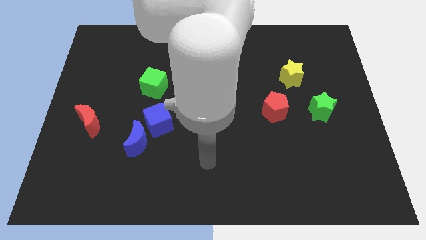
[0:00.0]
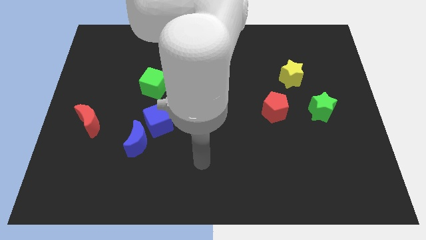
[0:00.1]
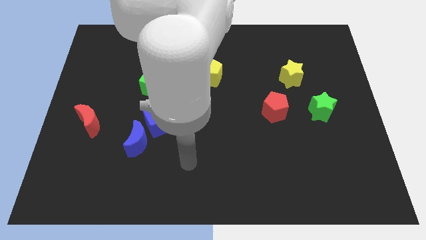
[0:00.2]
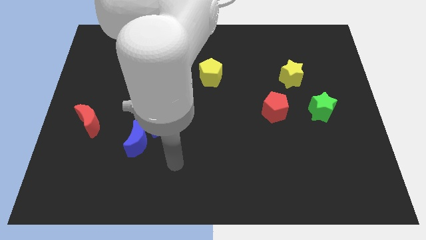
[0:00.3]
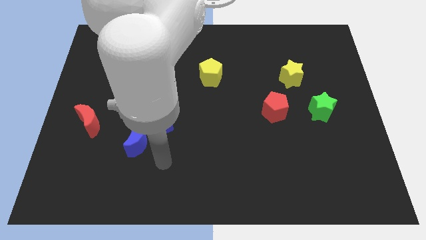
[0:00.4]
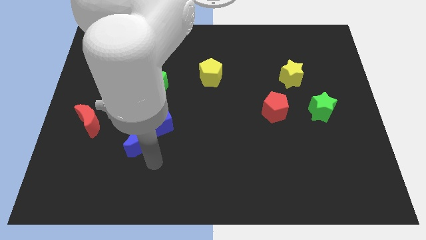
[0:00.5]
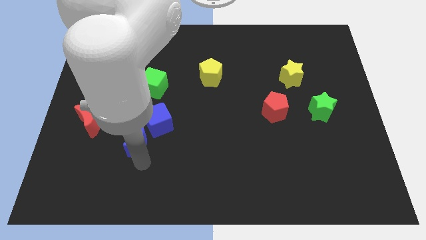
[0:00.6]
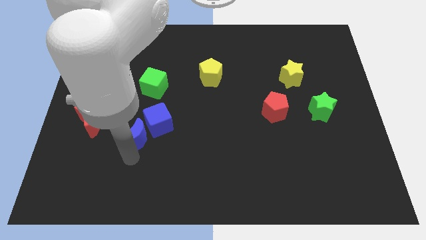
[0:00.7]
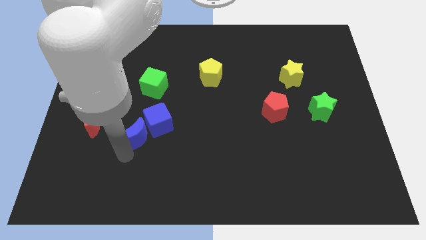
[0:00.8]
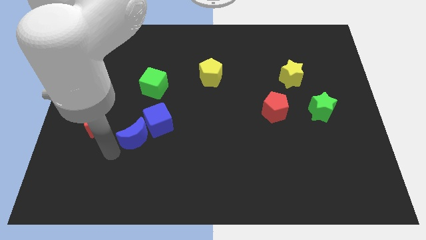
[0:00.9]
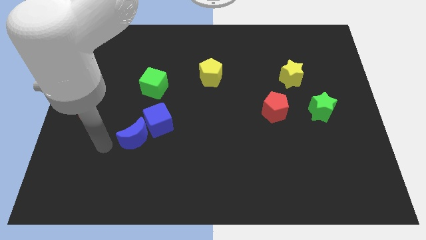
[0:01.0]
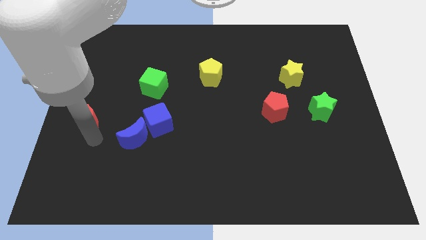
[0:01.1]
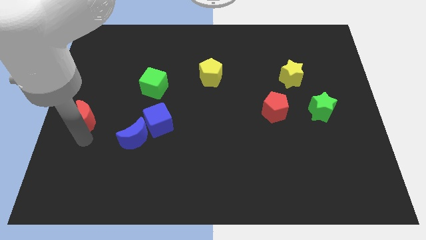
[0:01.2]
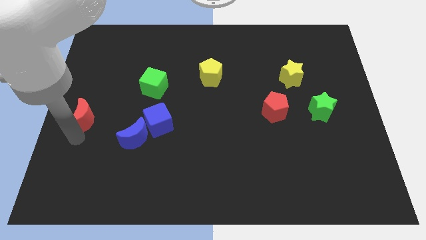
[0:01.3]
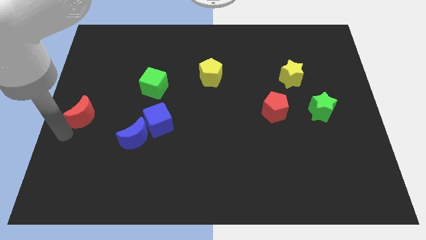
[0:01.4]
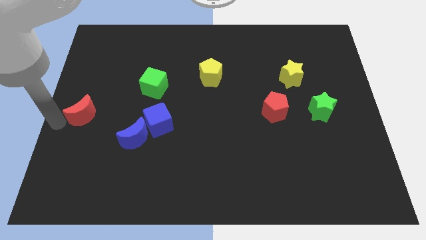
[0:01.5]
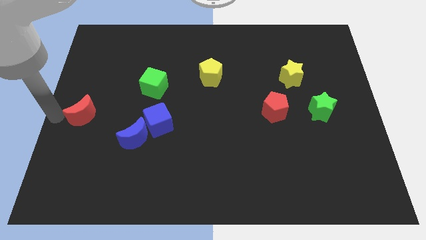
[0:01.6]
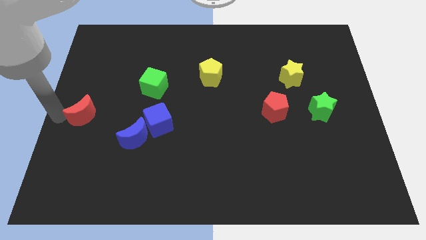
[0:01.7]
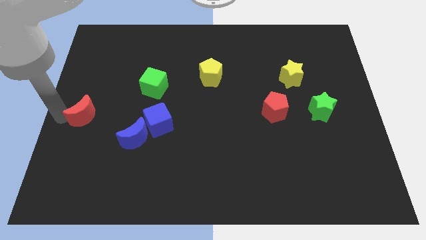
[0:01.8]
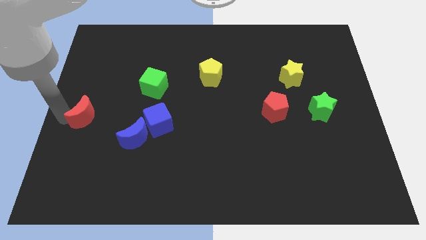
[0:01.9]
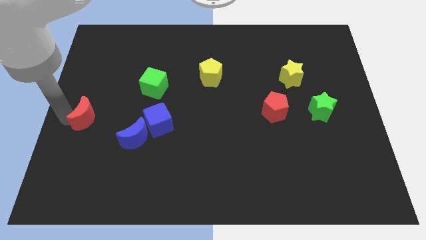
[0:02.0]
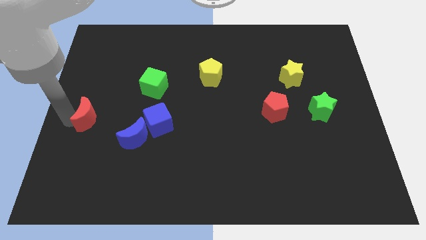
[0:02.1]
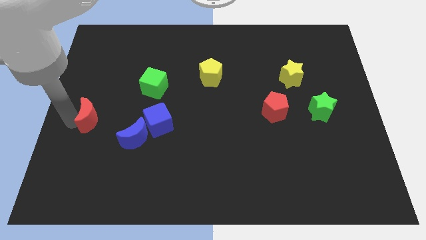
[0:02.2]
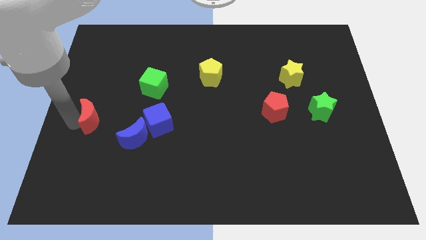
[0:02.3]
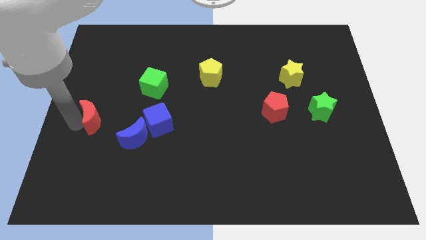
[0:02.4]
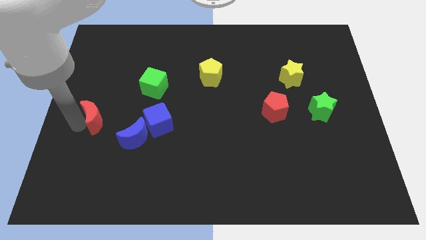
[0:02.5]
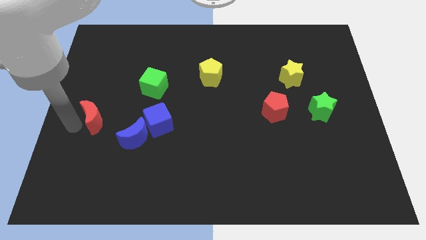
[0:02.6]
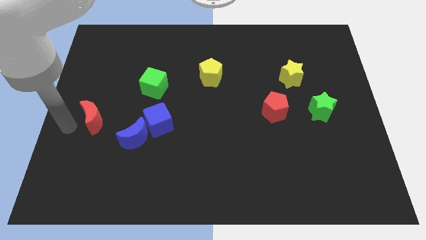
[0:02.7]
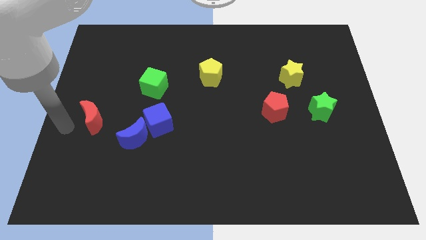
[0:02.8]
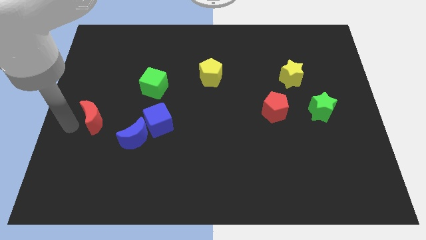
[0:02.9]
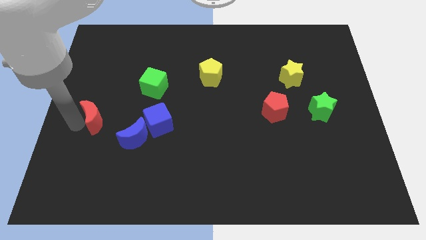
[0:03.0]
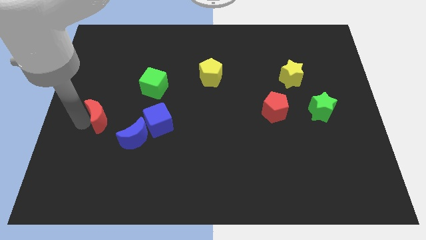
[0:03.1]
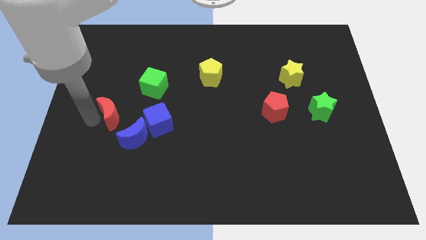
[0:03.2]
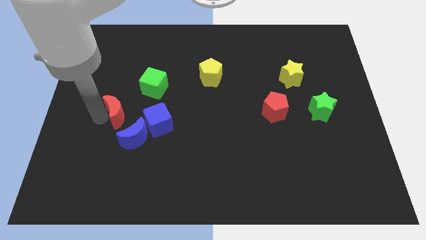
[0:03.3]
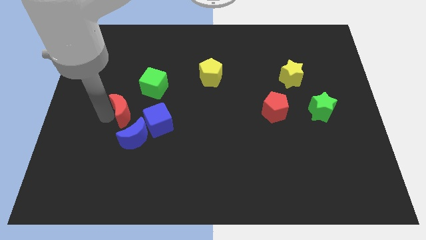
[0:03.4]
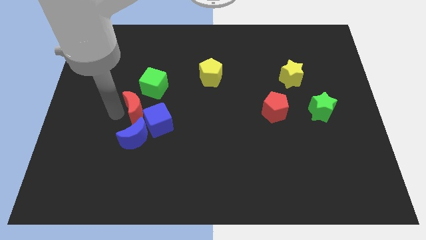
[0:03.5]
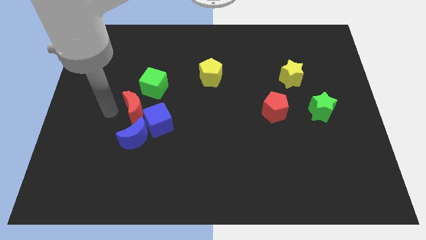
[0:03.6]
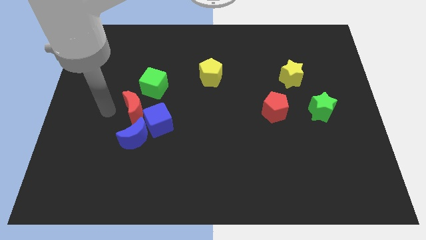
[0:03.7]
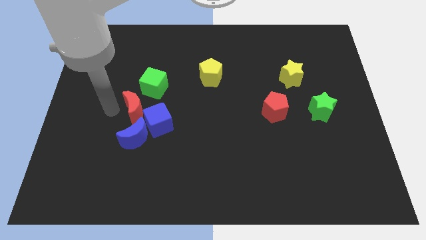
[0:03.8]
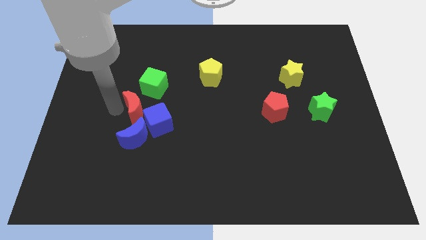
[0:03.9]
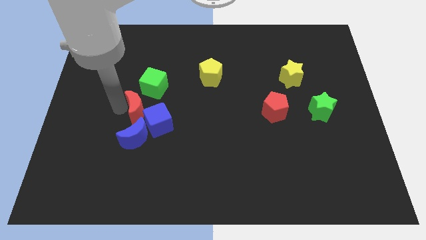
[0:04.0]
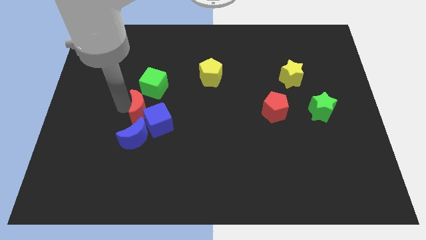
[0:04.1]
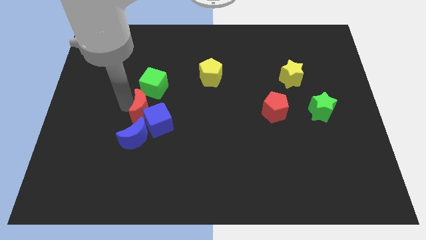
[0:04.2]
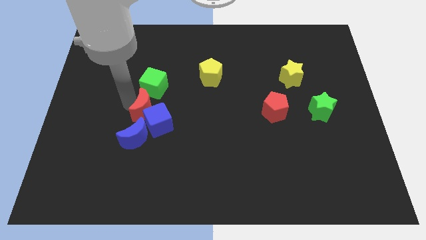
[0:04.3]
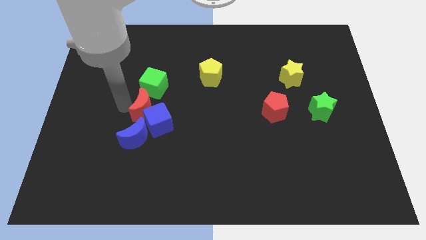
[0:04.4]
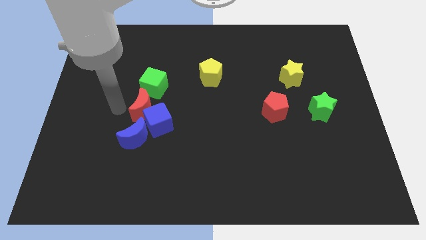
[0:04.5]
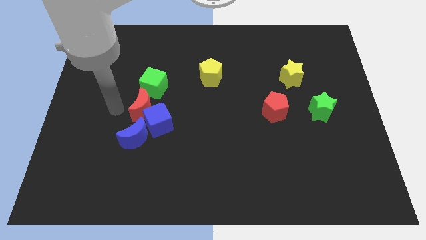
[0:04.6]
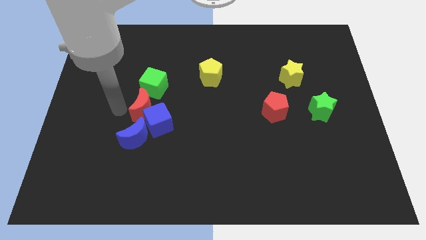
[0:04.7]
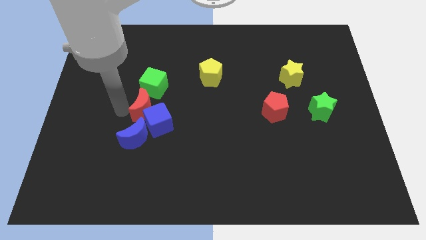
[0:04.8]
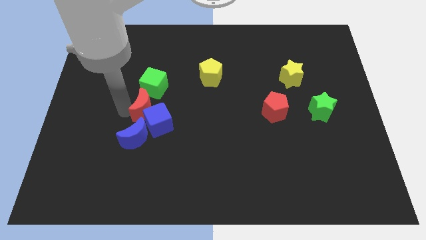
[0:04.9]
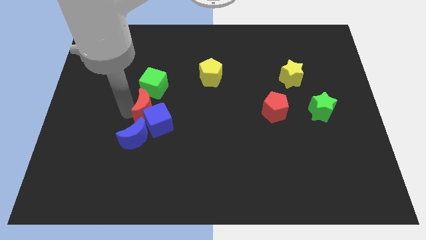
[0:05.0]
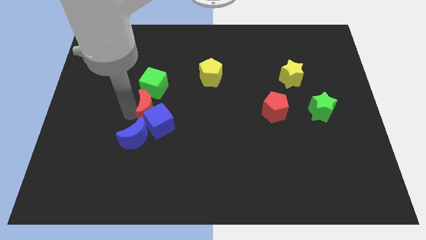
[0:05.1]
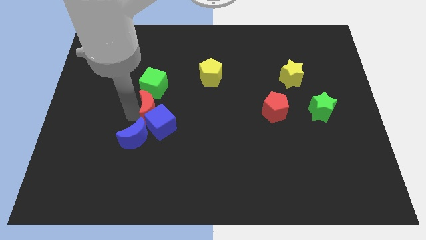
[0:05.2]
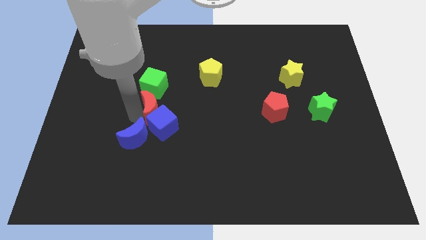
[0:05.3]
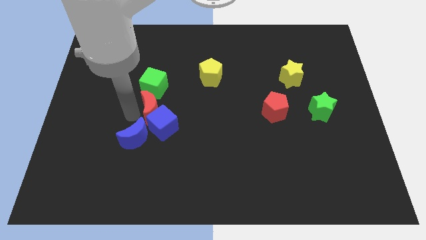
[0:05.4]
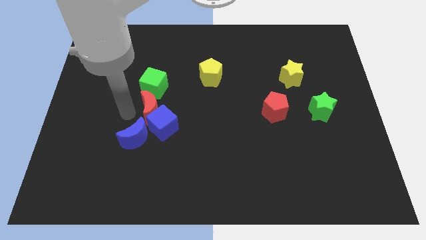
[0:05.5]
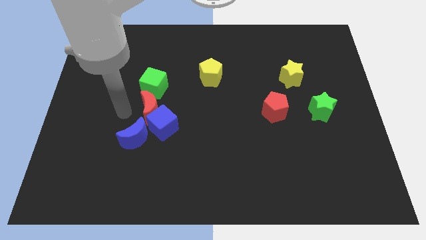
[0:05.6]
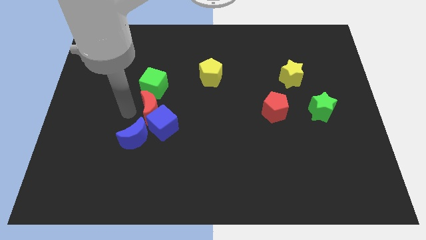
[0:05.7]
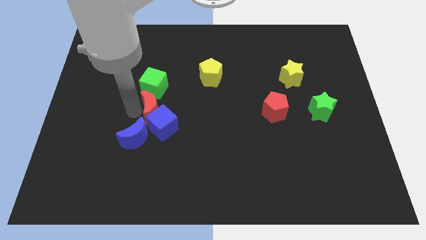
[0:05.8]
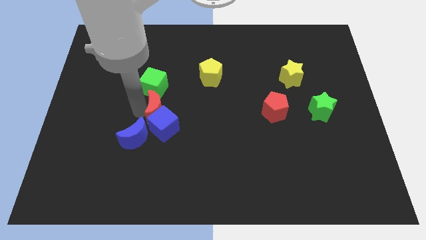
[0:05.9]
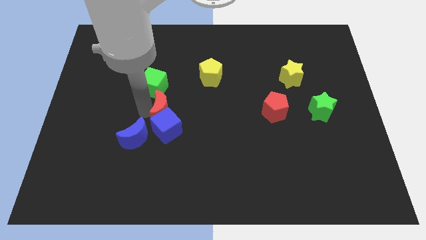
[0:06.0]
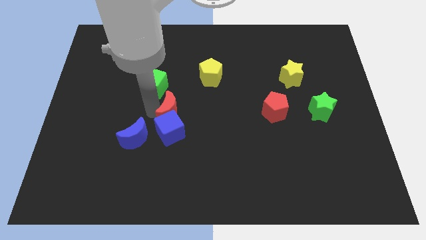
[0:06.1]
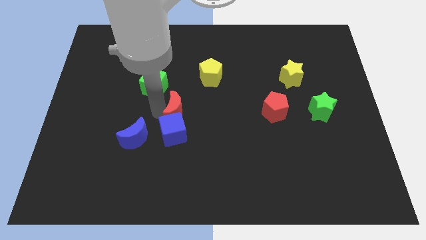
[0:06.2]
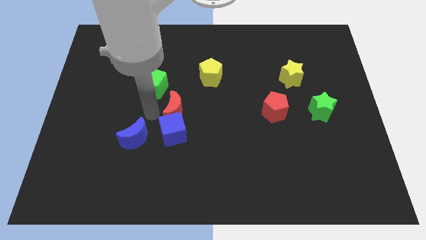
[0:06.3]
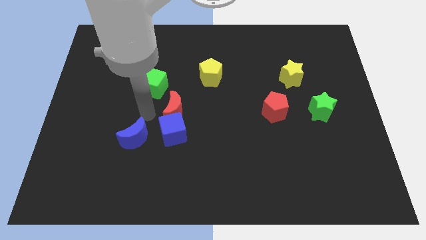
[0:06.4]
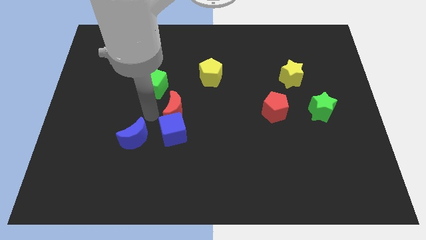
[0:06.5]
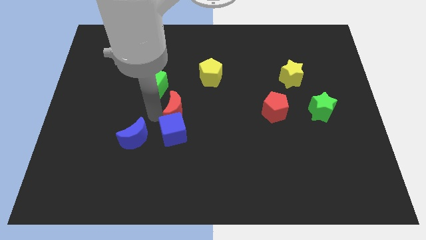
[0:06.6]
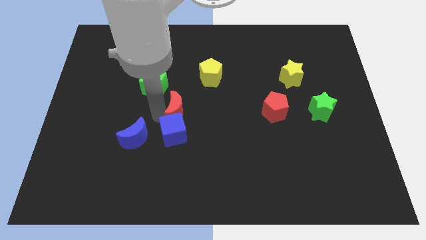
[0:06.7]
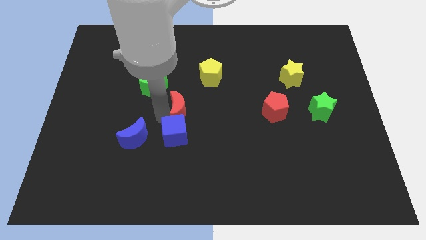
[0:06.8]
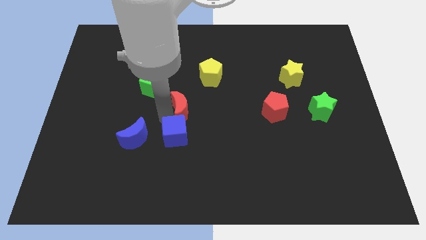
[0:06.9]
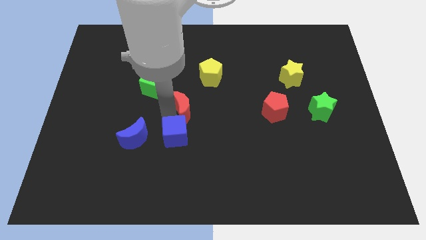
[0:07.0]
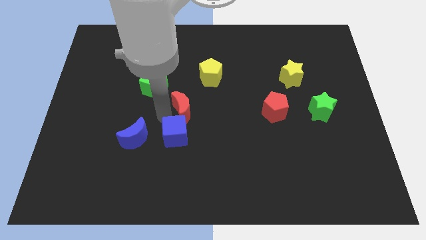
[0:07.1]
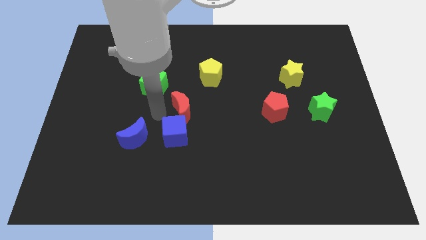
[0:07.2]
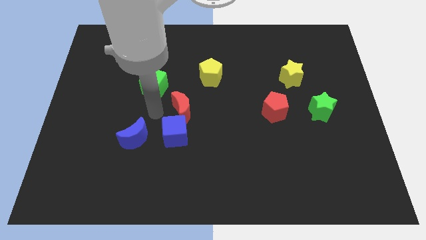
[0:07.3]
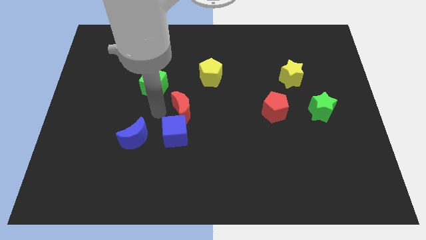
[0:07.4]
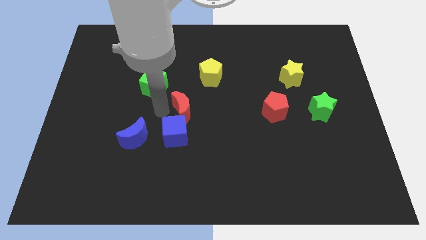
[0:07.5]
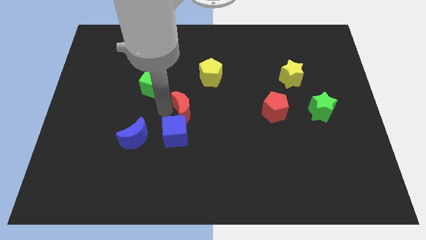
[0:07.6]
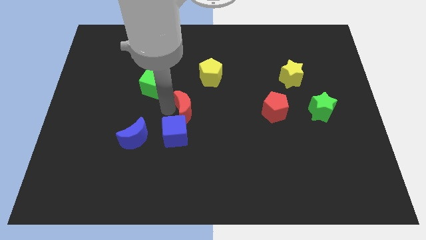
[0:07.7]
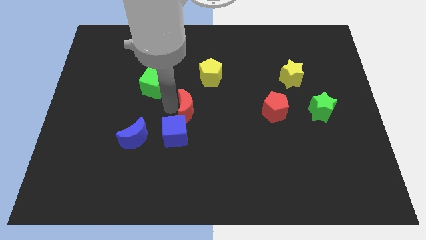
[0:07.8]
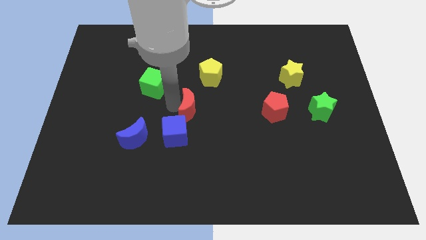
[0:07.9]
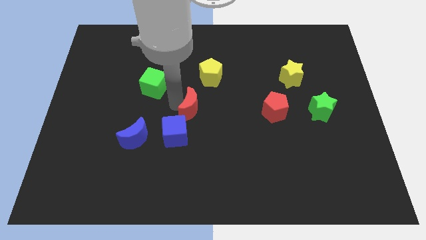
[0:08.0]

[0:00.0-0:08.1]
slide the red moon to the bottom side of the yellow pentagon
